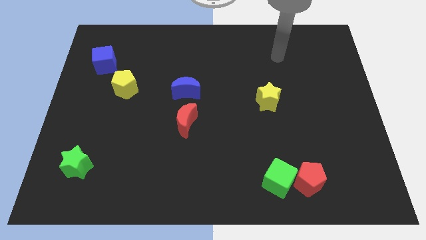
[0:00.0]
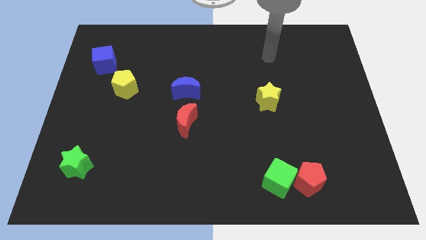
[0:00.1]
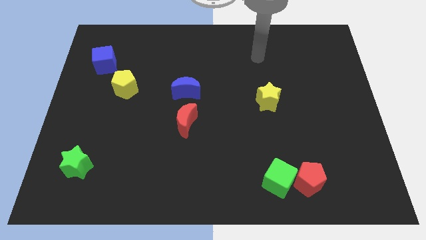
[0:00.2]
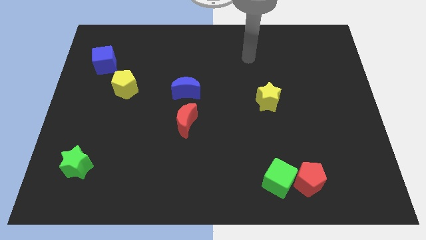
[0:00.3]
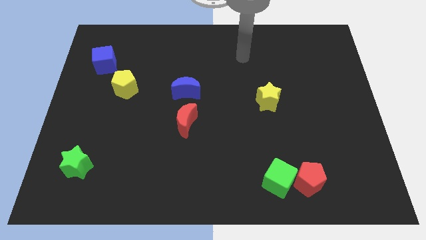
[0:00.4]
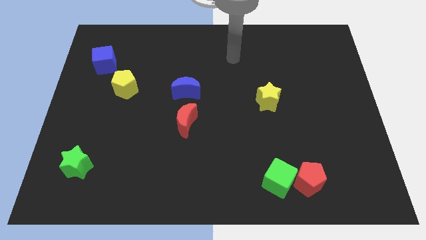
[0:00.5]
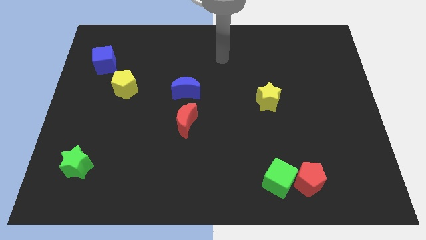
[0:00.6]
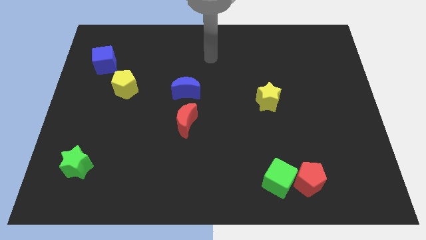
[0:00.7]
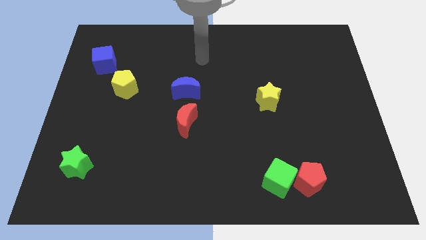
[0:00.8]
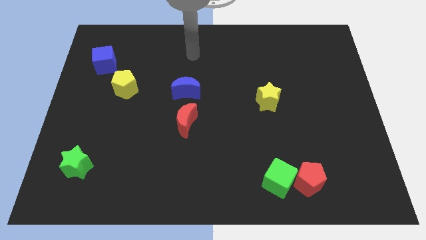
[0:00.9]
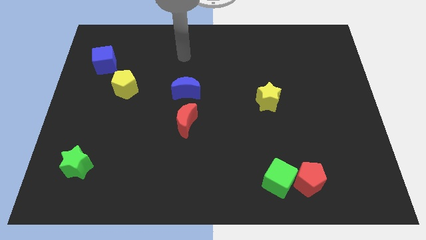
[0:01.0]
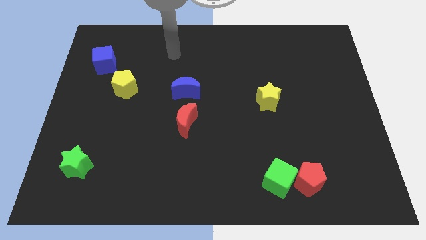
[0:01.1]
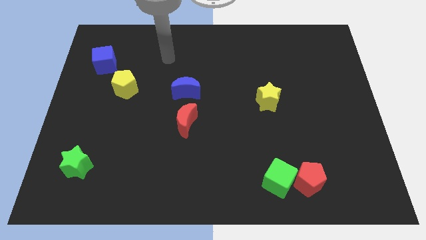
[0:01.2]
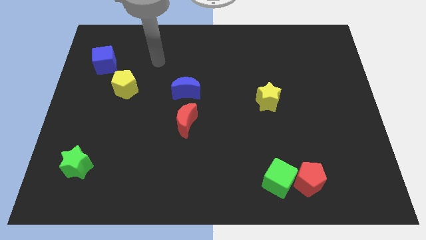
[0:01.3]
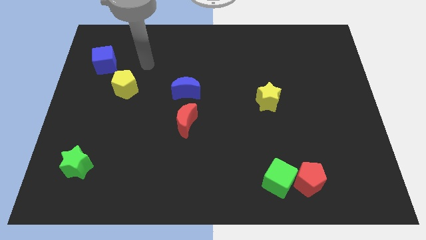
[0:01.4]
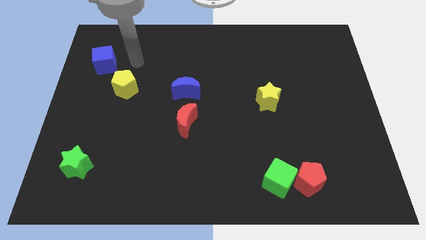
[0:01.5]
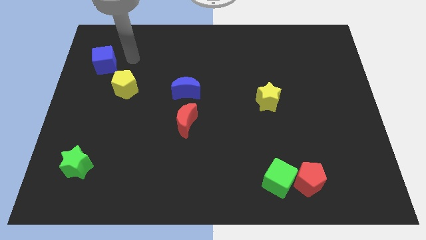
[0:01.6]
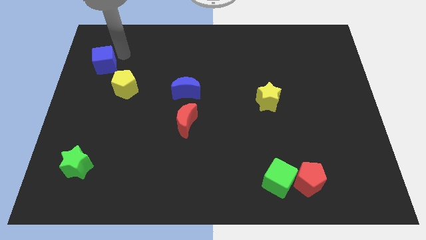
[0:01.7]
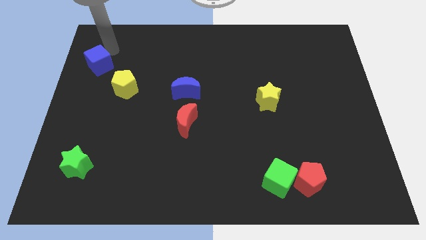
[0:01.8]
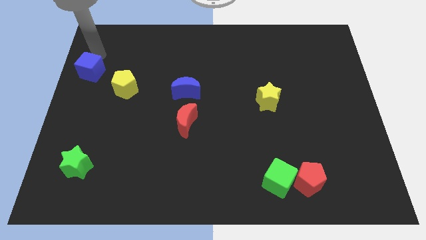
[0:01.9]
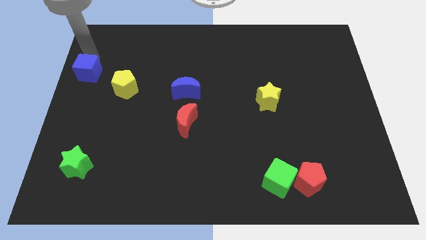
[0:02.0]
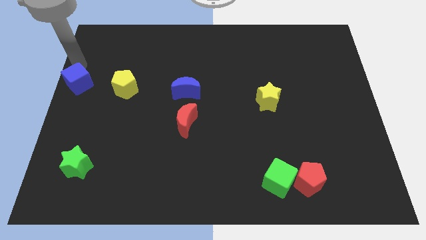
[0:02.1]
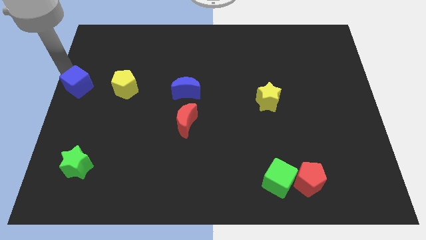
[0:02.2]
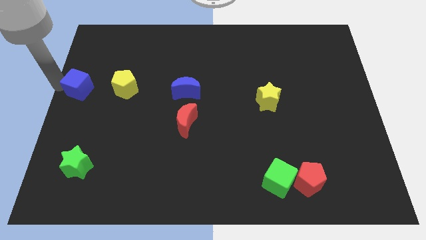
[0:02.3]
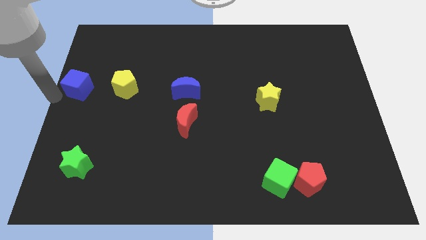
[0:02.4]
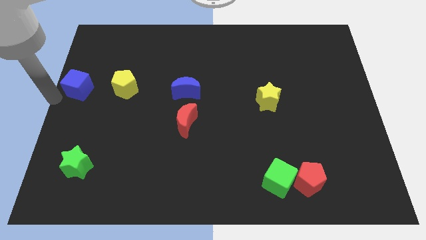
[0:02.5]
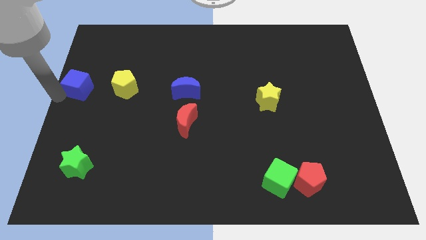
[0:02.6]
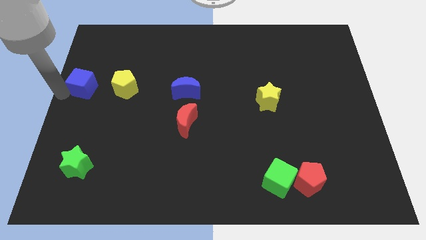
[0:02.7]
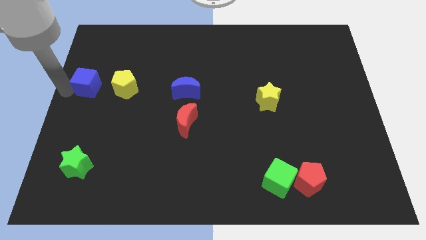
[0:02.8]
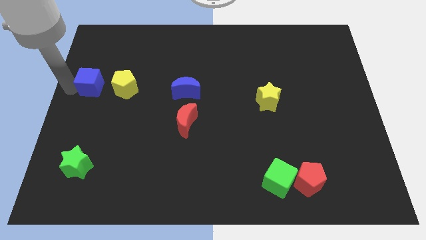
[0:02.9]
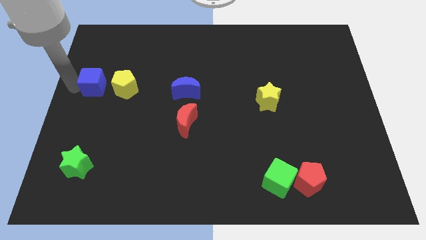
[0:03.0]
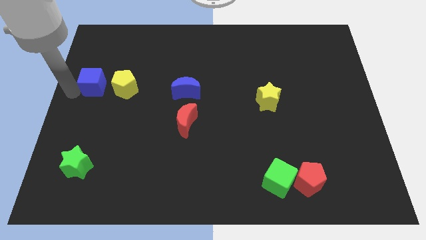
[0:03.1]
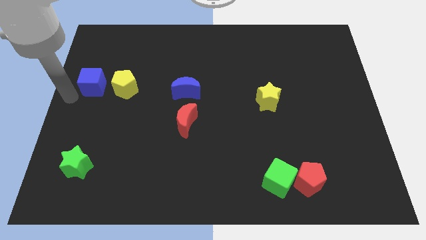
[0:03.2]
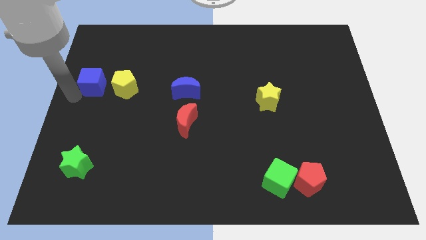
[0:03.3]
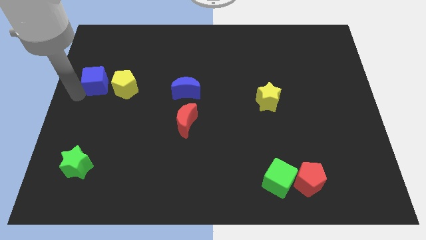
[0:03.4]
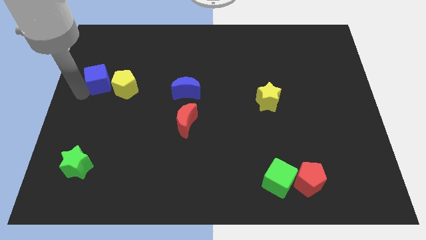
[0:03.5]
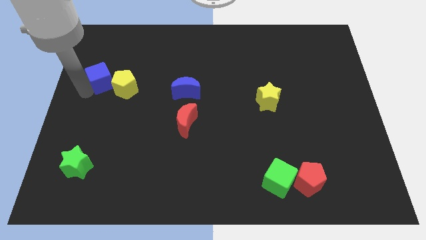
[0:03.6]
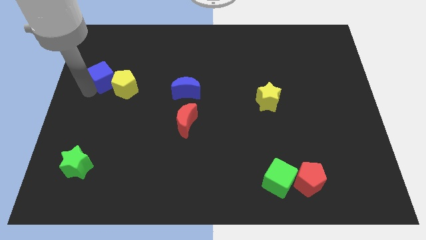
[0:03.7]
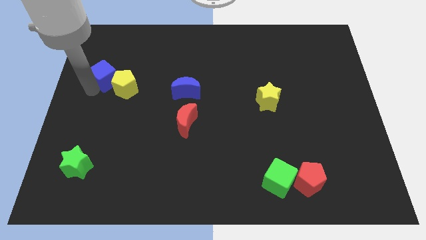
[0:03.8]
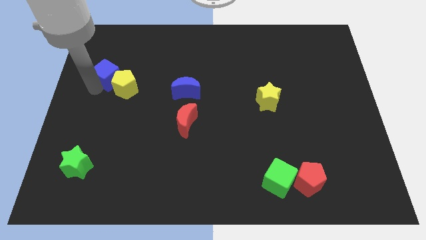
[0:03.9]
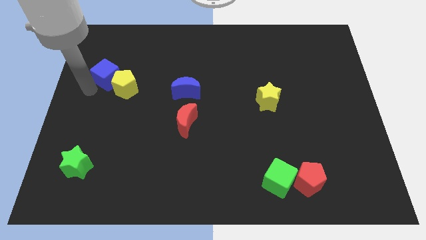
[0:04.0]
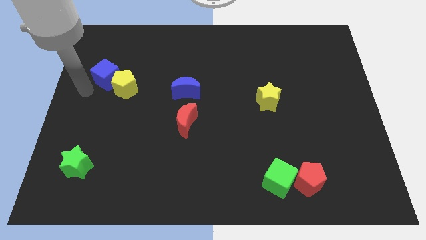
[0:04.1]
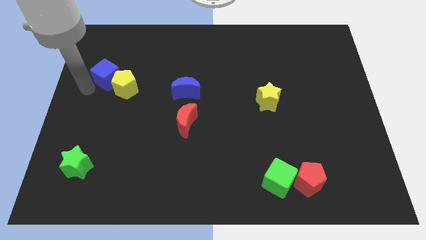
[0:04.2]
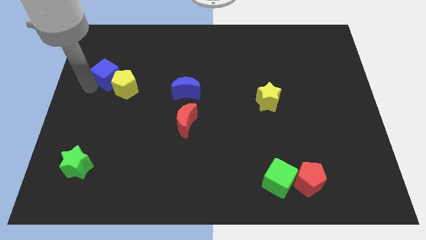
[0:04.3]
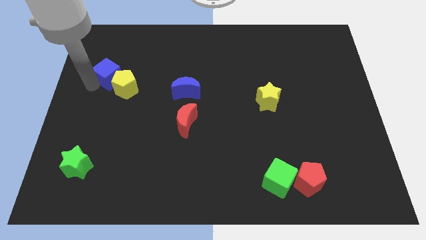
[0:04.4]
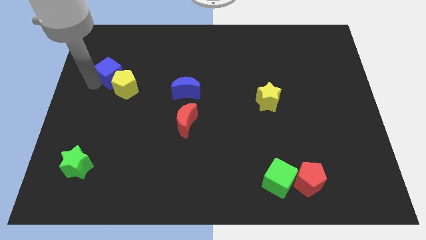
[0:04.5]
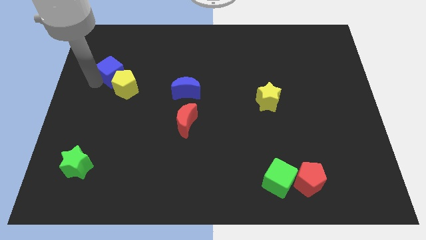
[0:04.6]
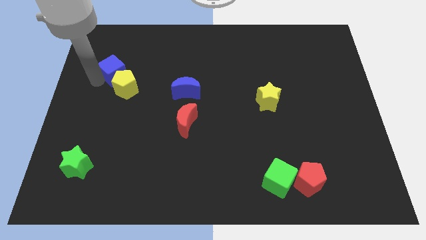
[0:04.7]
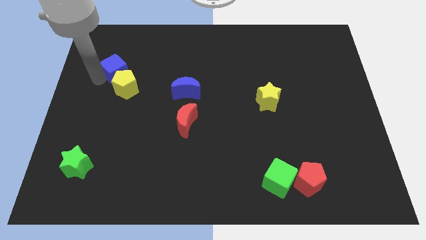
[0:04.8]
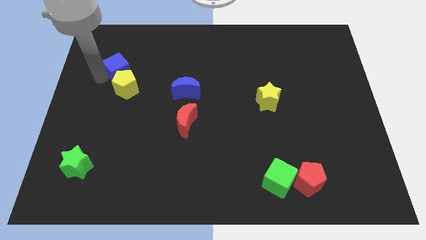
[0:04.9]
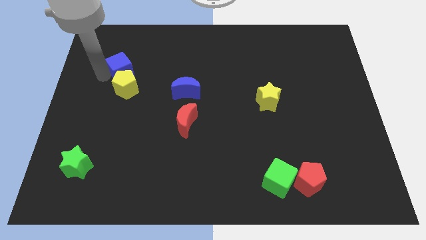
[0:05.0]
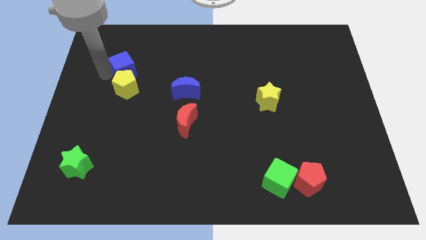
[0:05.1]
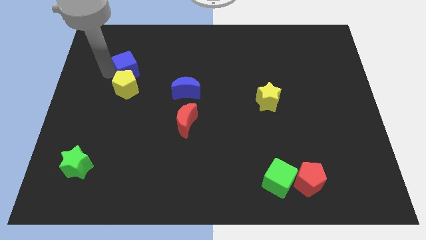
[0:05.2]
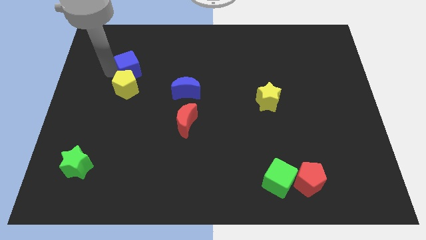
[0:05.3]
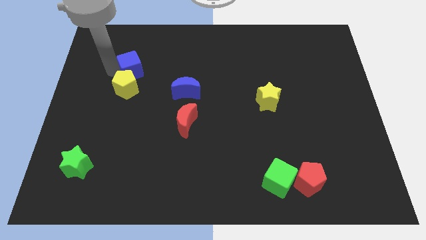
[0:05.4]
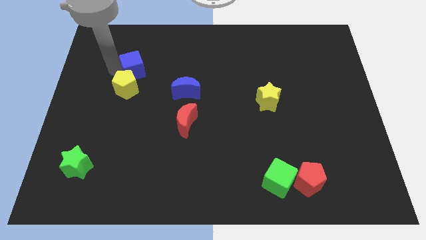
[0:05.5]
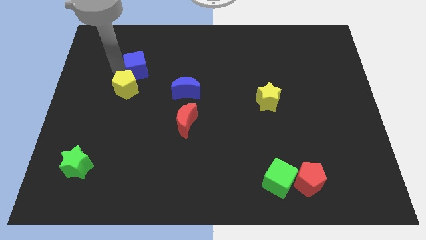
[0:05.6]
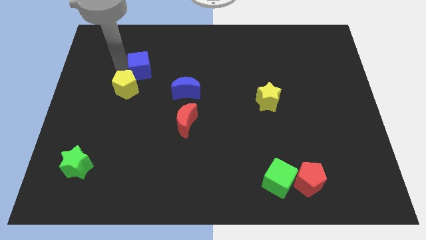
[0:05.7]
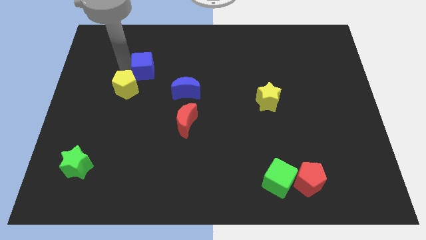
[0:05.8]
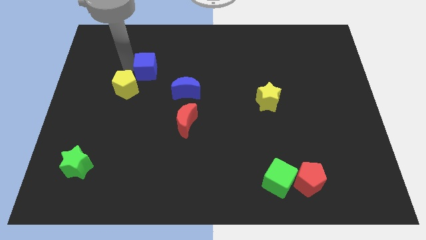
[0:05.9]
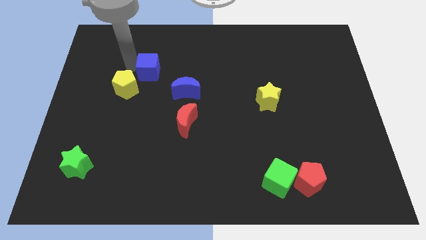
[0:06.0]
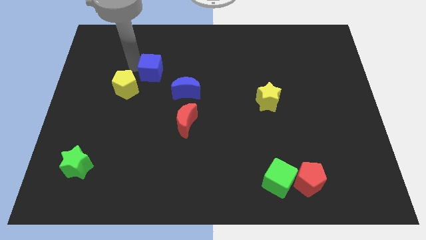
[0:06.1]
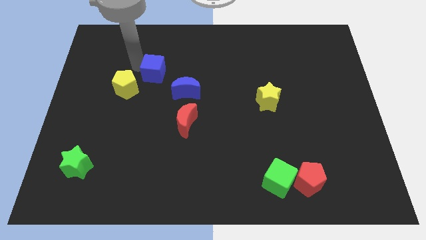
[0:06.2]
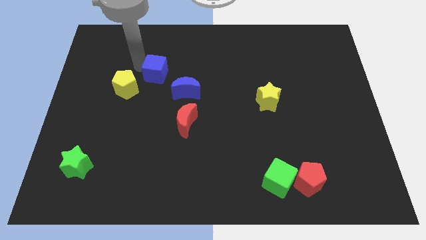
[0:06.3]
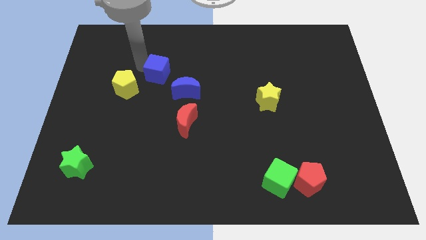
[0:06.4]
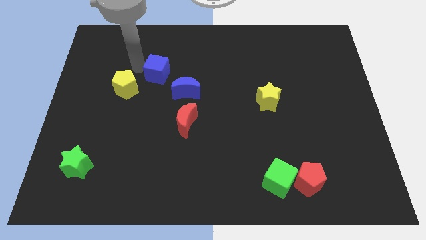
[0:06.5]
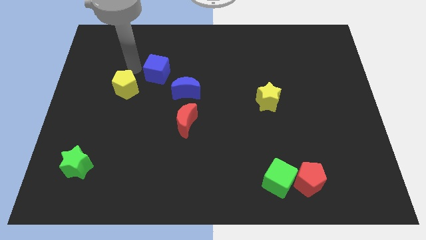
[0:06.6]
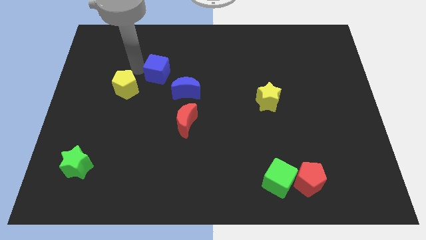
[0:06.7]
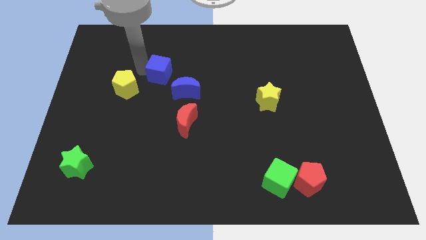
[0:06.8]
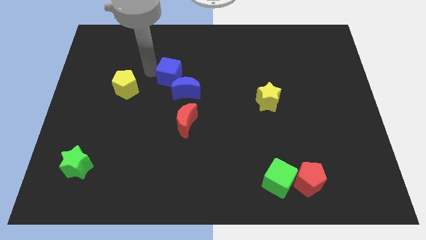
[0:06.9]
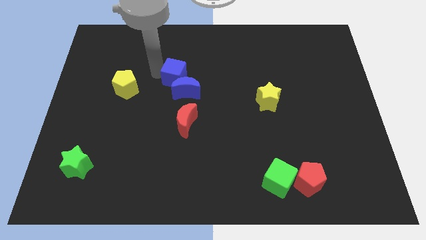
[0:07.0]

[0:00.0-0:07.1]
put the blue cube to the center
